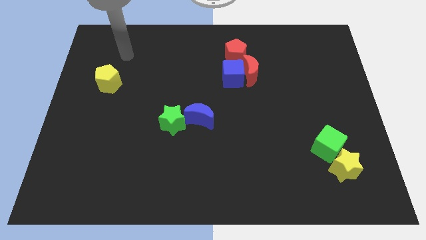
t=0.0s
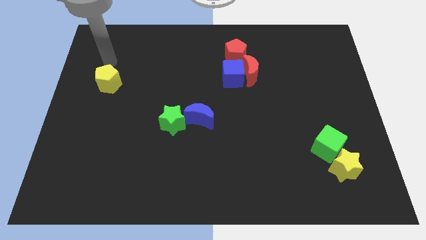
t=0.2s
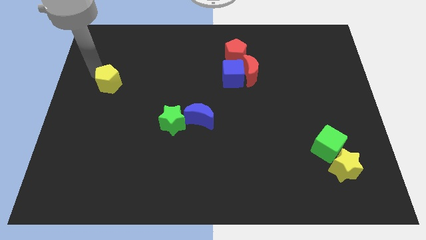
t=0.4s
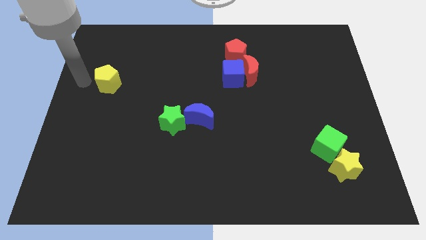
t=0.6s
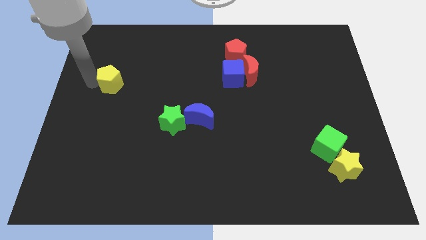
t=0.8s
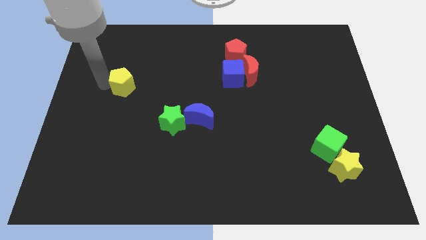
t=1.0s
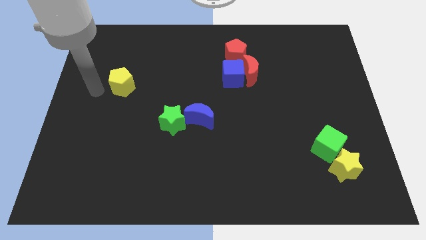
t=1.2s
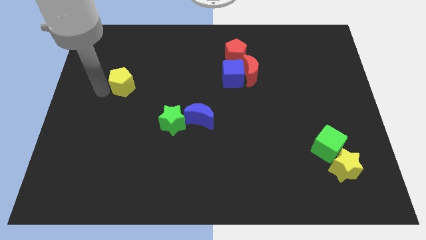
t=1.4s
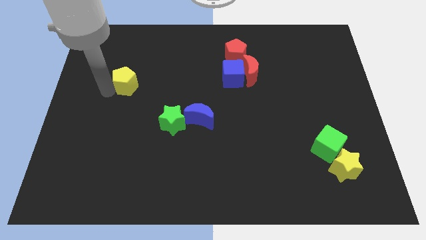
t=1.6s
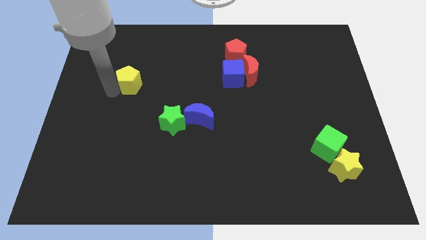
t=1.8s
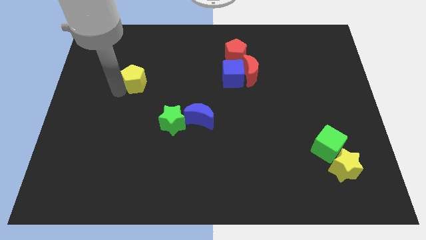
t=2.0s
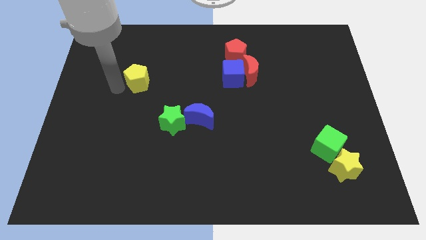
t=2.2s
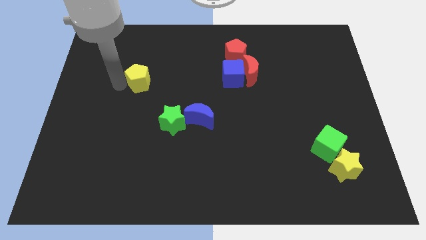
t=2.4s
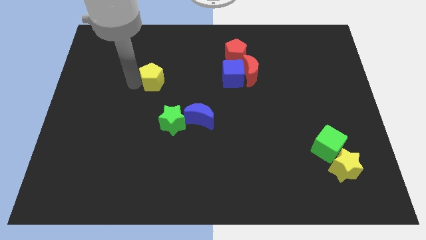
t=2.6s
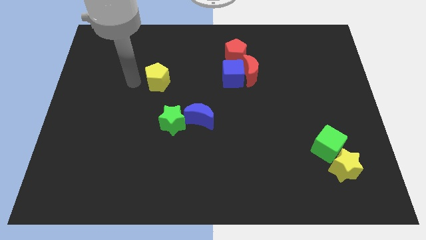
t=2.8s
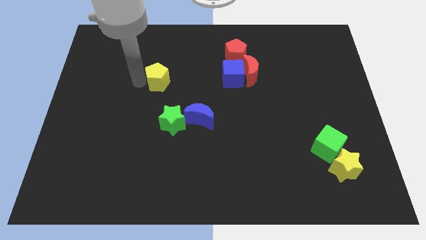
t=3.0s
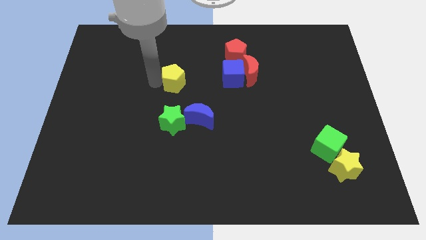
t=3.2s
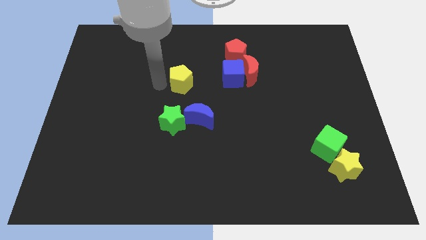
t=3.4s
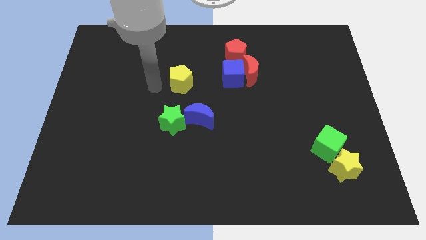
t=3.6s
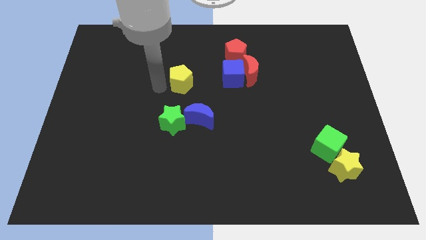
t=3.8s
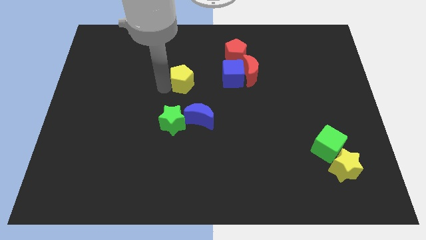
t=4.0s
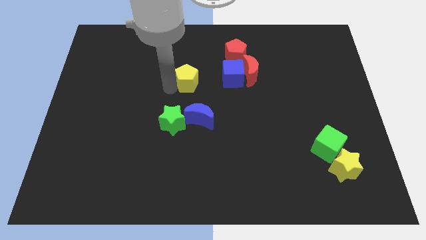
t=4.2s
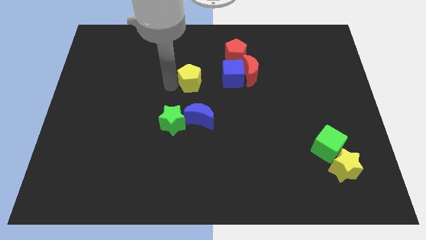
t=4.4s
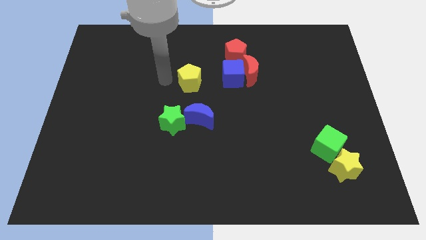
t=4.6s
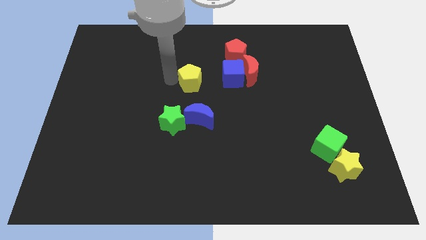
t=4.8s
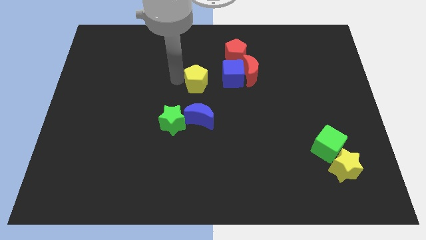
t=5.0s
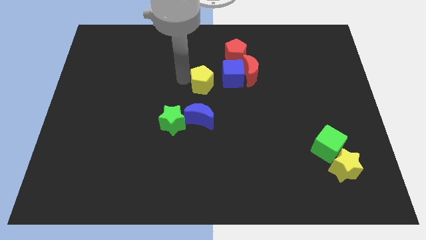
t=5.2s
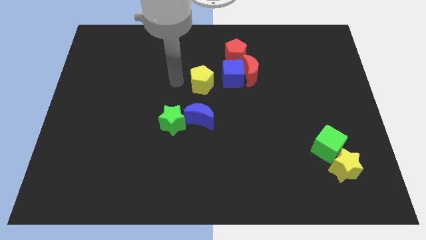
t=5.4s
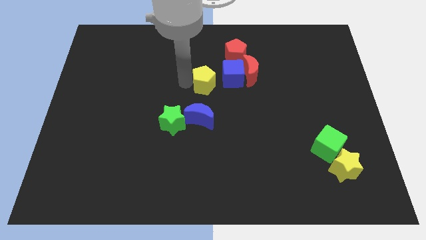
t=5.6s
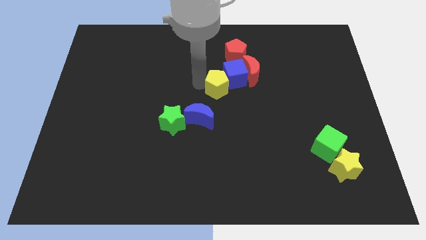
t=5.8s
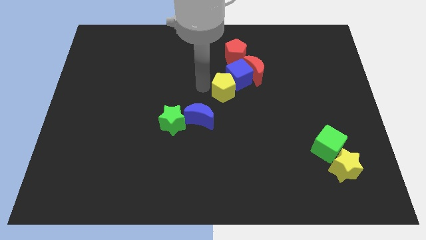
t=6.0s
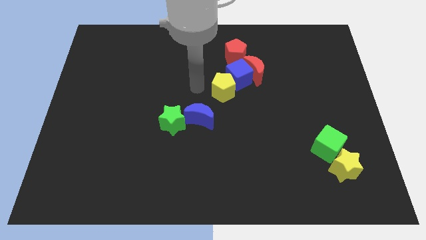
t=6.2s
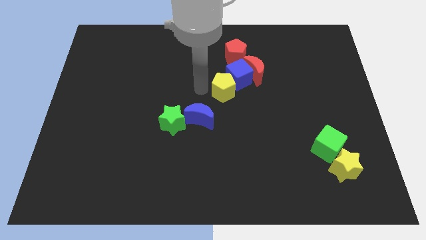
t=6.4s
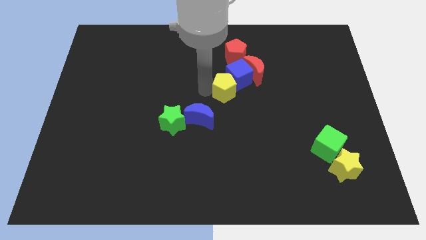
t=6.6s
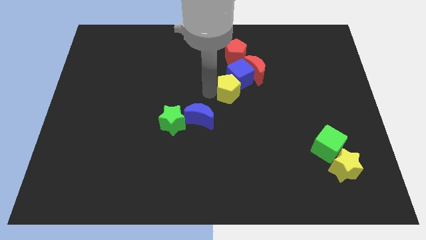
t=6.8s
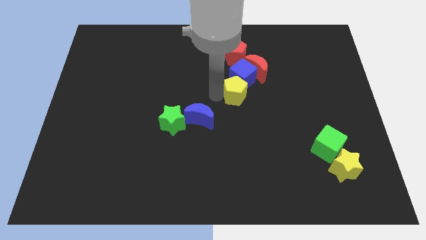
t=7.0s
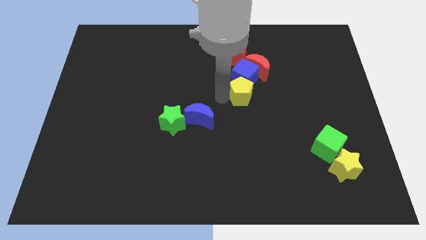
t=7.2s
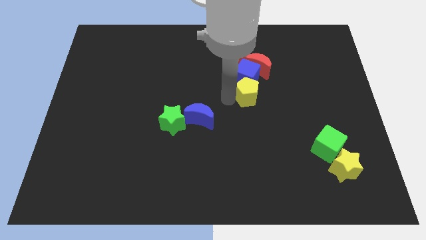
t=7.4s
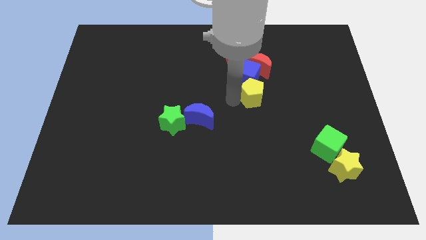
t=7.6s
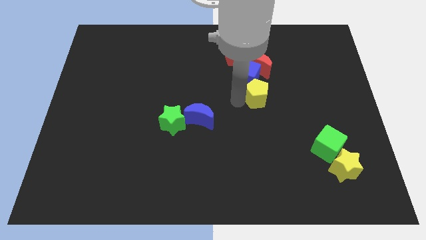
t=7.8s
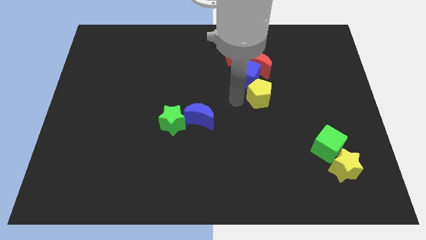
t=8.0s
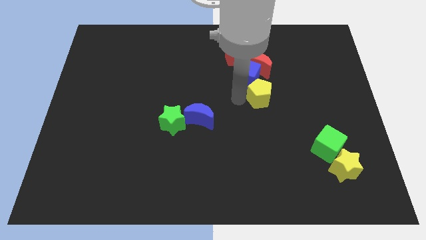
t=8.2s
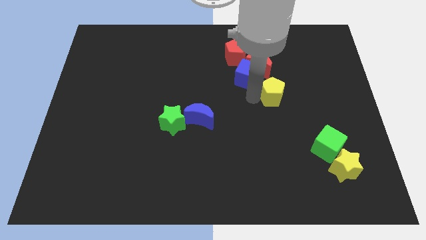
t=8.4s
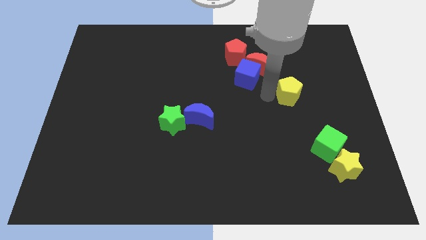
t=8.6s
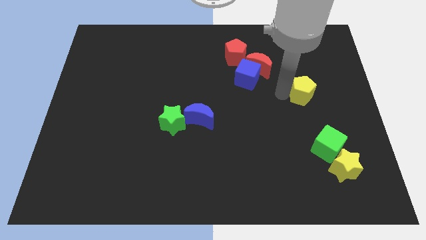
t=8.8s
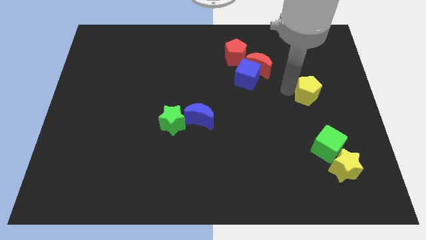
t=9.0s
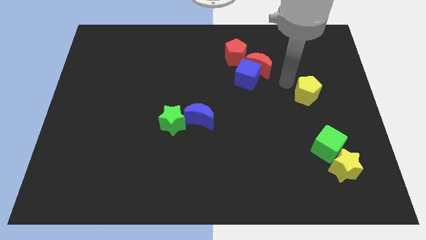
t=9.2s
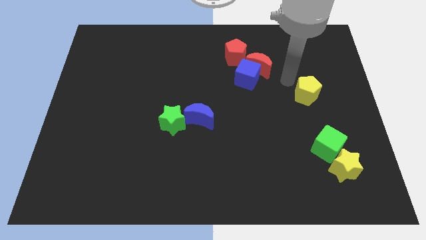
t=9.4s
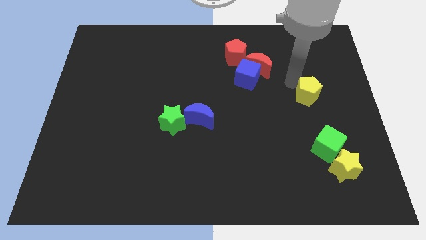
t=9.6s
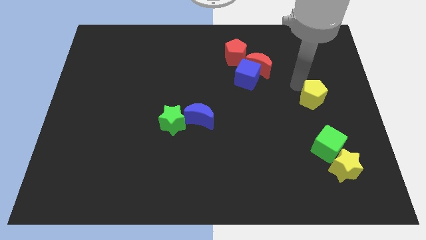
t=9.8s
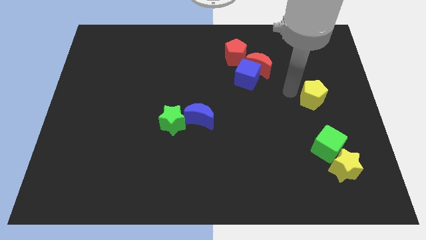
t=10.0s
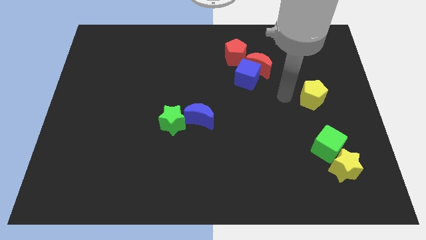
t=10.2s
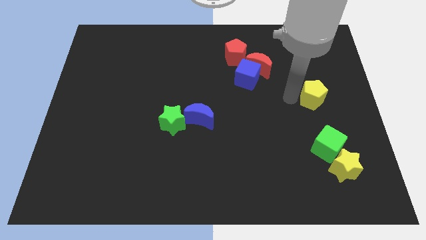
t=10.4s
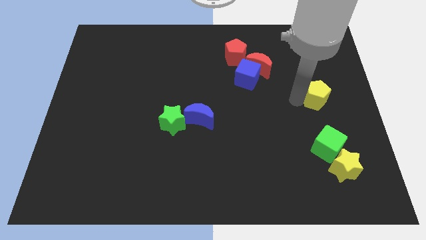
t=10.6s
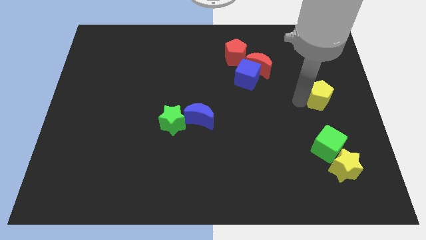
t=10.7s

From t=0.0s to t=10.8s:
put the yellow pentagon to the right side of the board

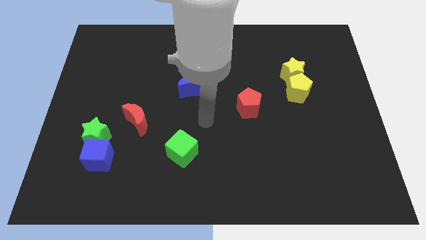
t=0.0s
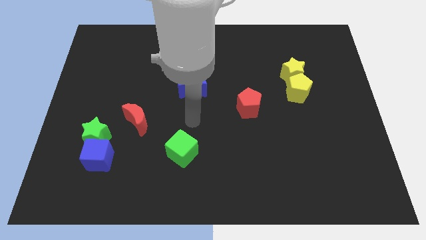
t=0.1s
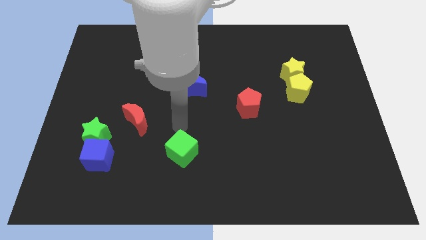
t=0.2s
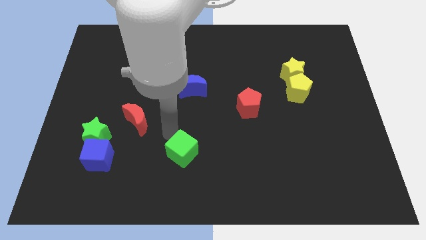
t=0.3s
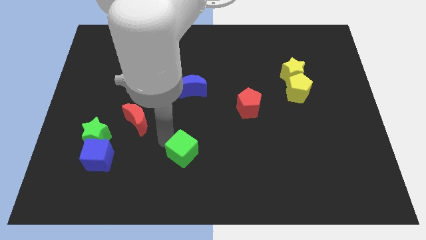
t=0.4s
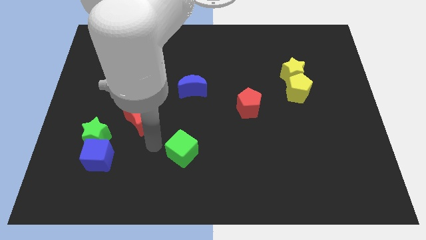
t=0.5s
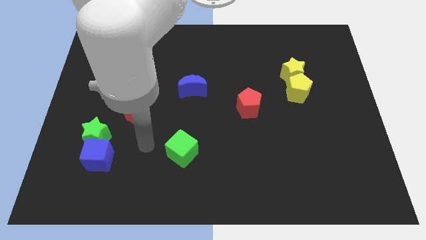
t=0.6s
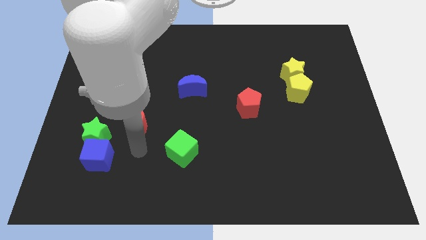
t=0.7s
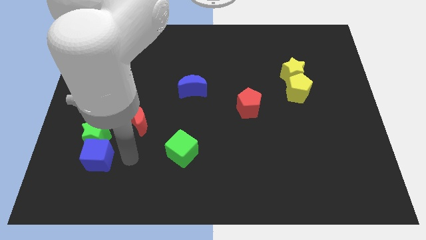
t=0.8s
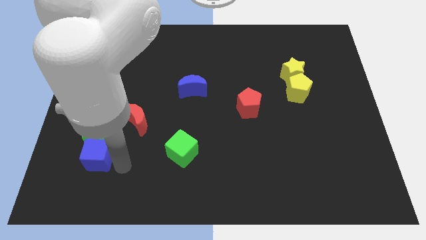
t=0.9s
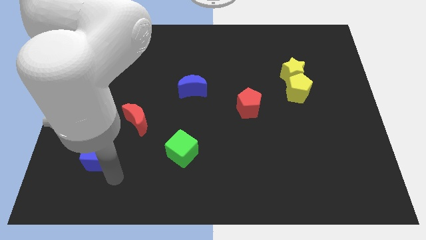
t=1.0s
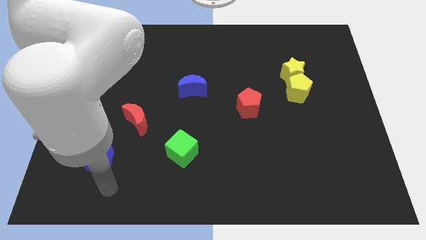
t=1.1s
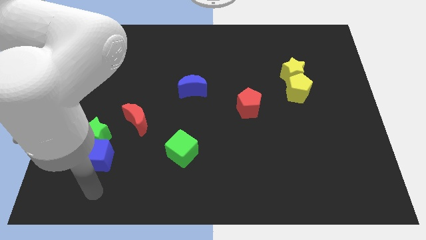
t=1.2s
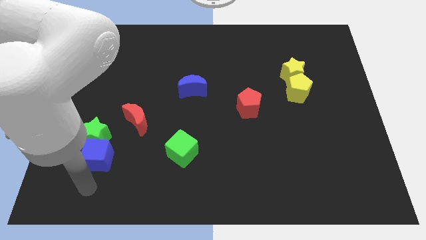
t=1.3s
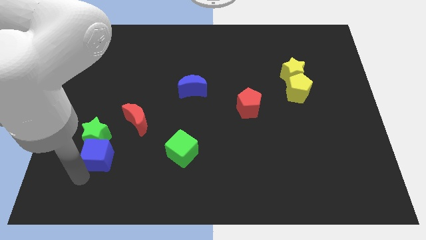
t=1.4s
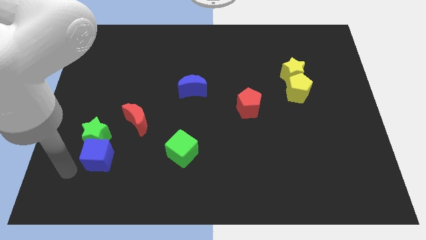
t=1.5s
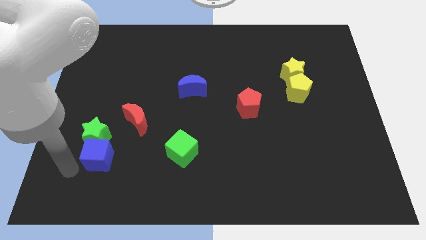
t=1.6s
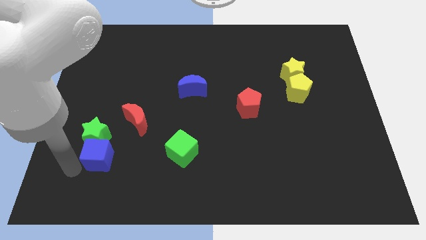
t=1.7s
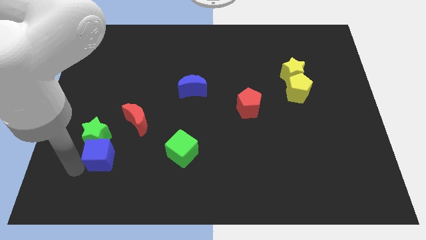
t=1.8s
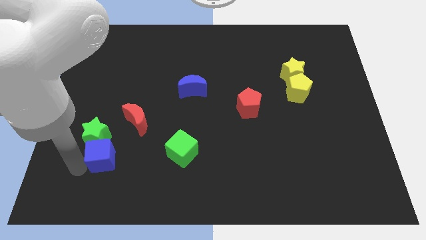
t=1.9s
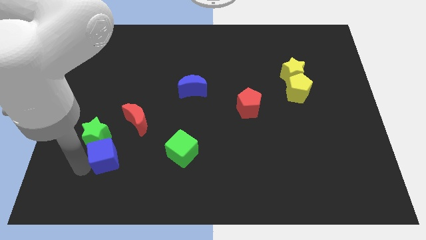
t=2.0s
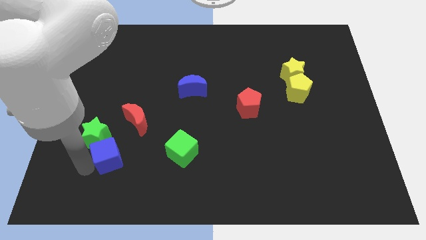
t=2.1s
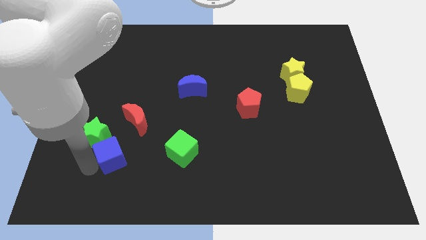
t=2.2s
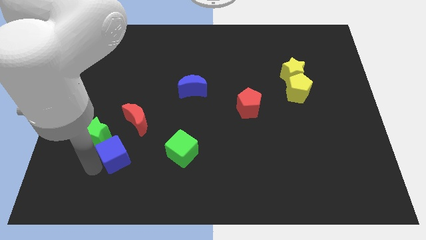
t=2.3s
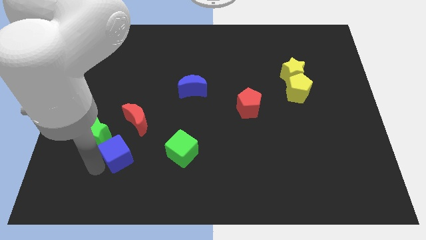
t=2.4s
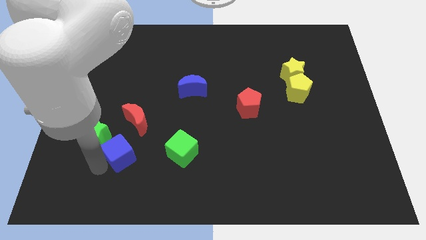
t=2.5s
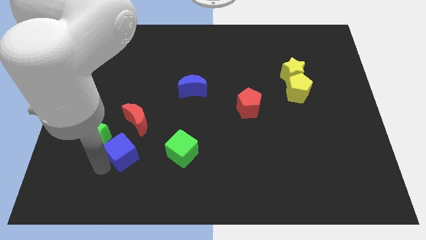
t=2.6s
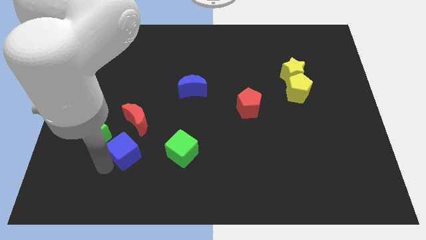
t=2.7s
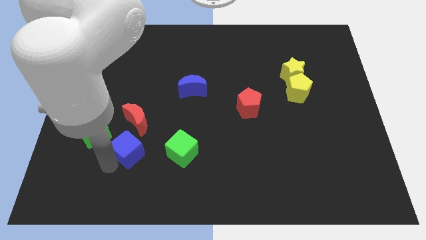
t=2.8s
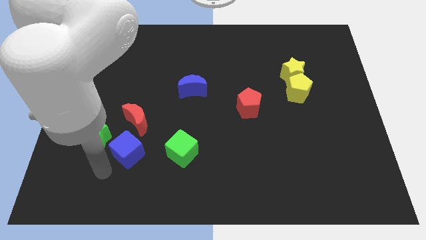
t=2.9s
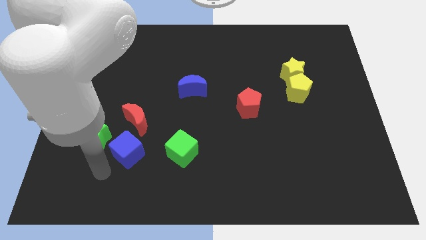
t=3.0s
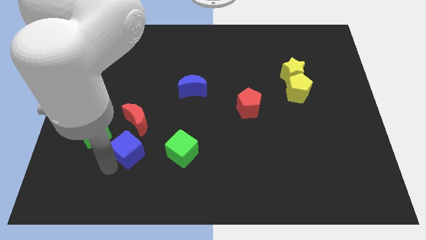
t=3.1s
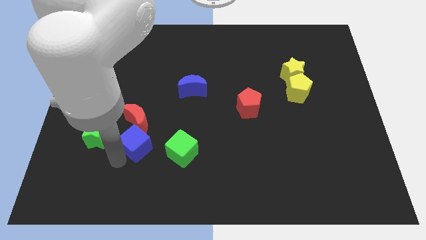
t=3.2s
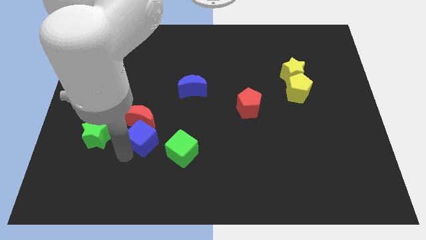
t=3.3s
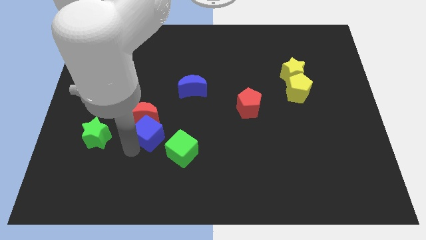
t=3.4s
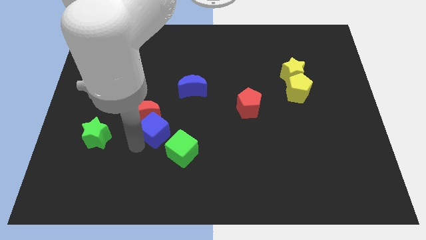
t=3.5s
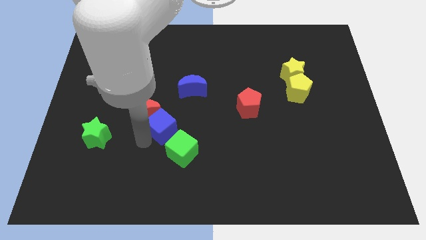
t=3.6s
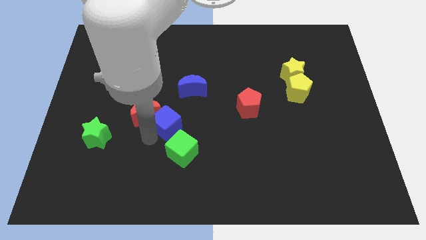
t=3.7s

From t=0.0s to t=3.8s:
push the blue cube to the center of the board
